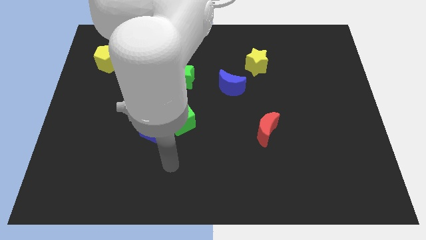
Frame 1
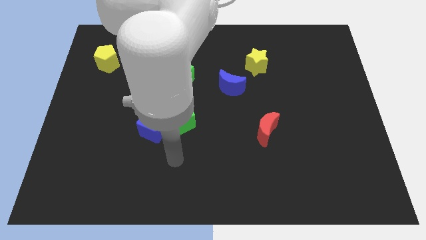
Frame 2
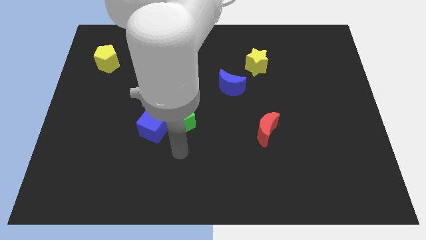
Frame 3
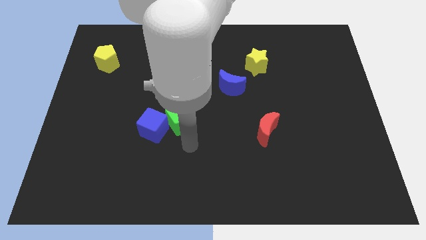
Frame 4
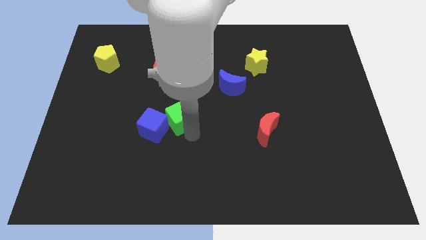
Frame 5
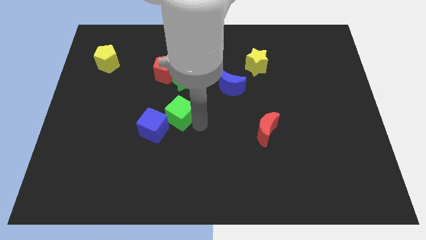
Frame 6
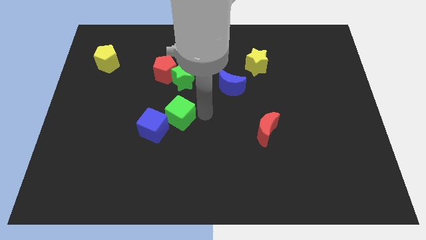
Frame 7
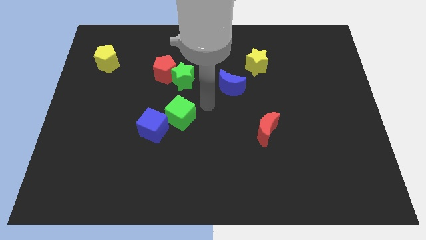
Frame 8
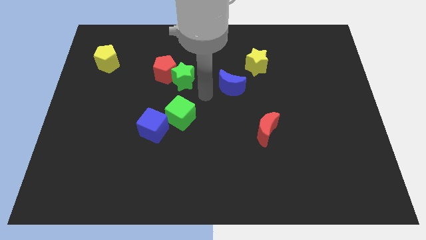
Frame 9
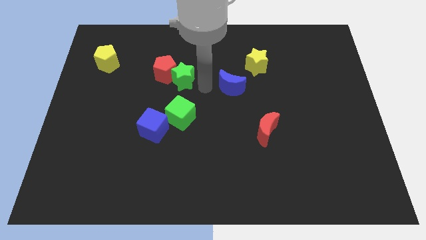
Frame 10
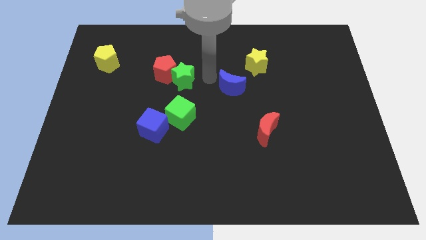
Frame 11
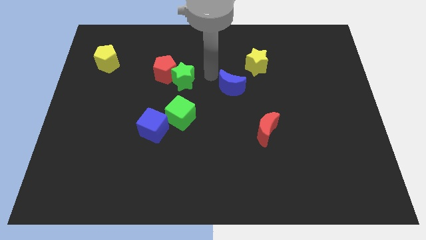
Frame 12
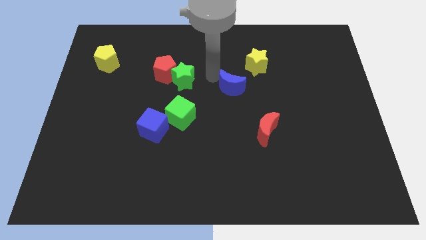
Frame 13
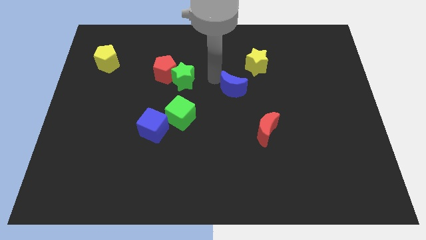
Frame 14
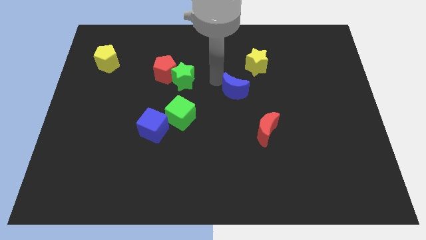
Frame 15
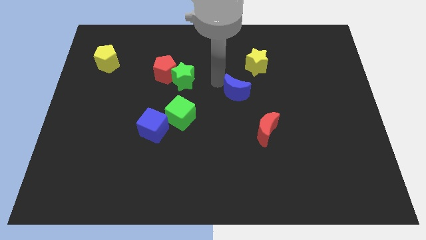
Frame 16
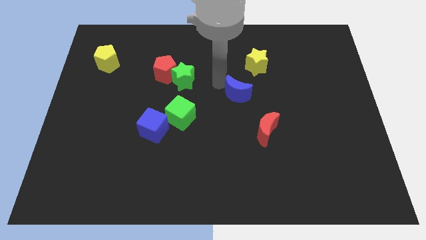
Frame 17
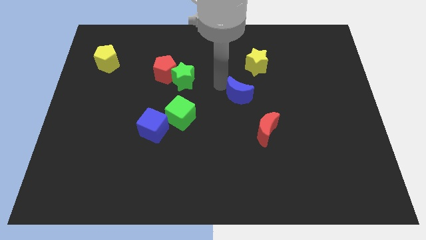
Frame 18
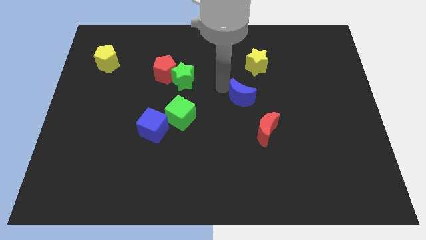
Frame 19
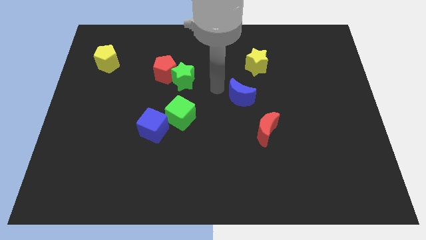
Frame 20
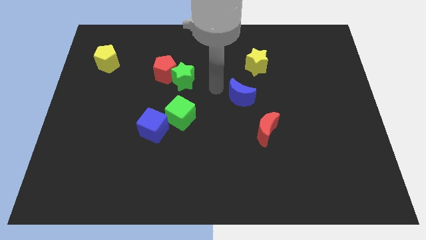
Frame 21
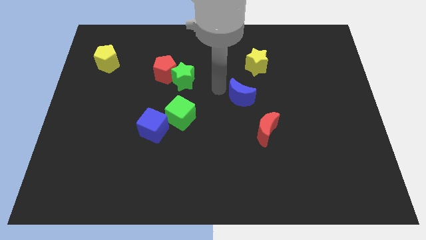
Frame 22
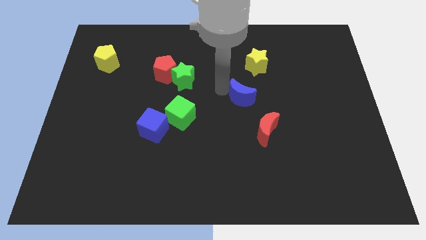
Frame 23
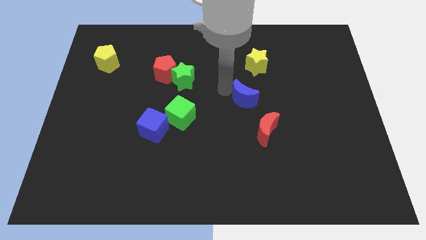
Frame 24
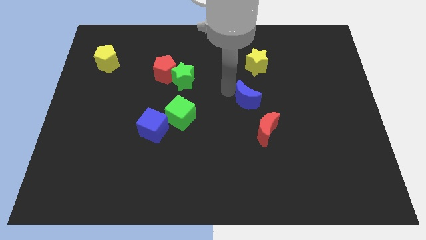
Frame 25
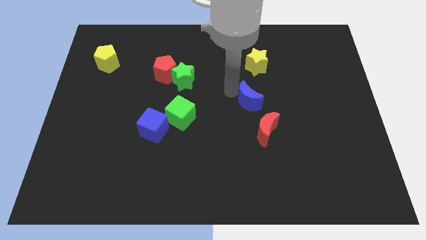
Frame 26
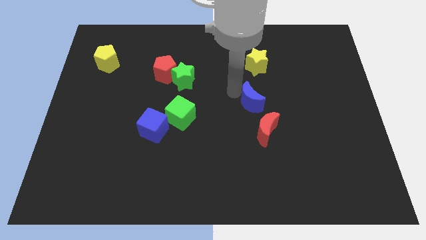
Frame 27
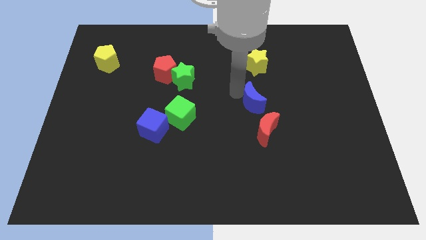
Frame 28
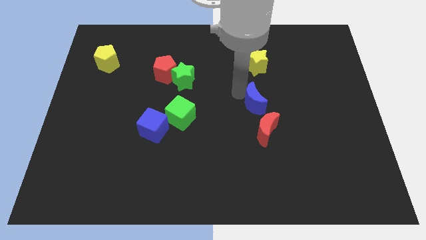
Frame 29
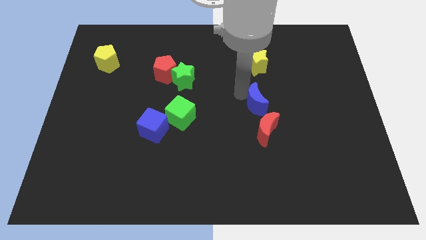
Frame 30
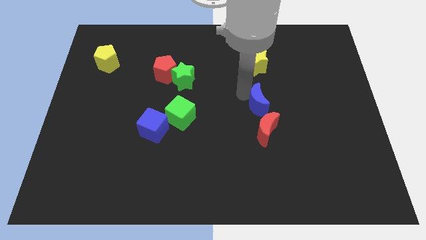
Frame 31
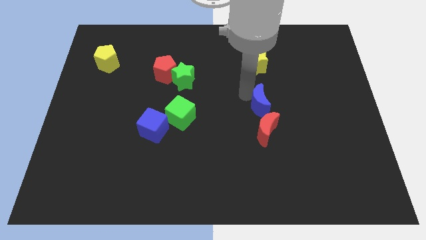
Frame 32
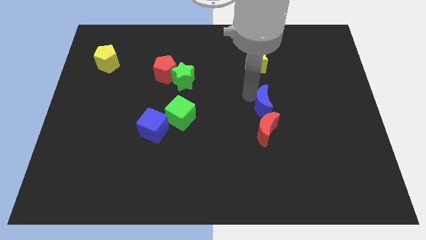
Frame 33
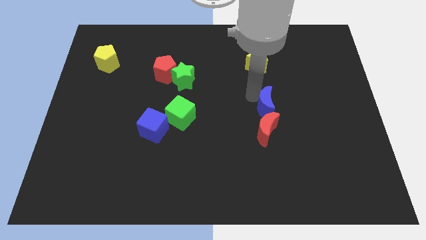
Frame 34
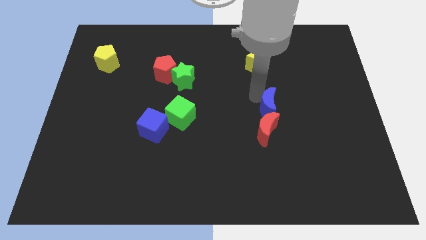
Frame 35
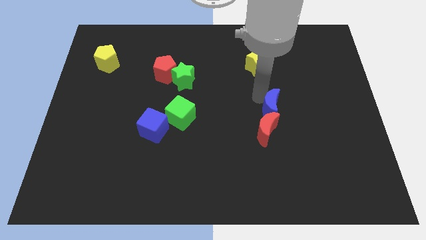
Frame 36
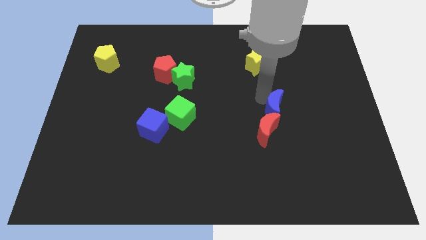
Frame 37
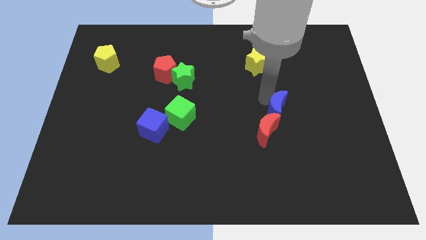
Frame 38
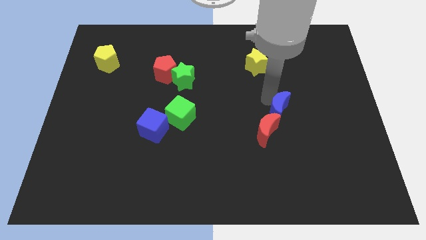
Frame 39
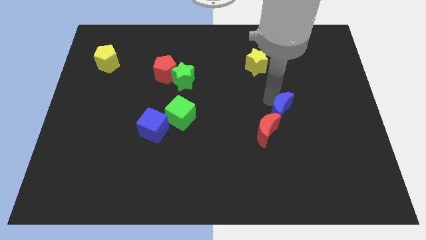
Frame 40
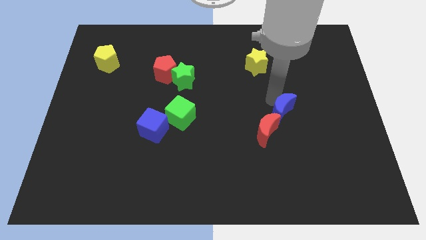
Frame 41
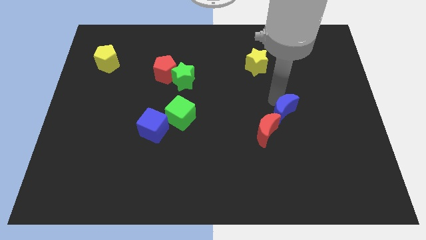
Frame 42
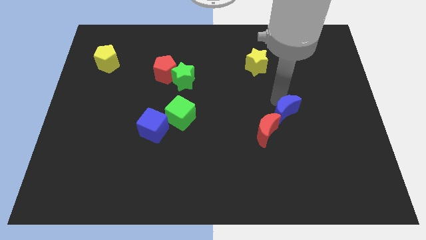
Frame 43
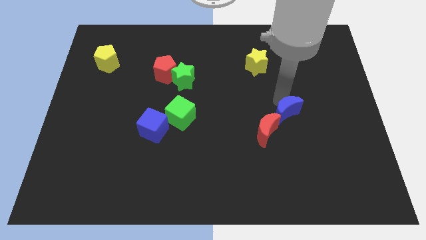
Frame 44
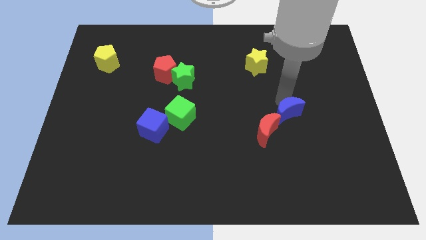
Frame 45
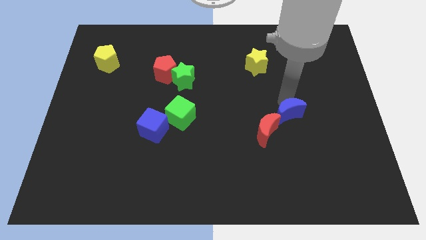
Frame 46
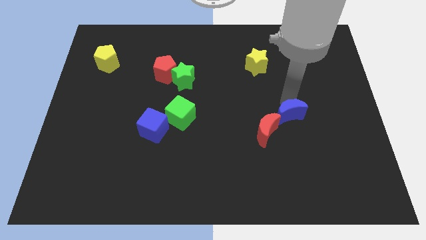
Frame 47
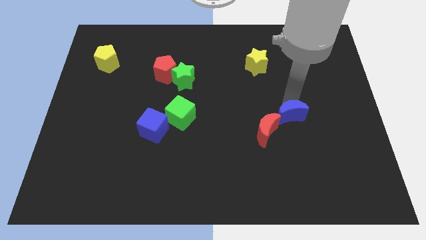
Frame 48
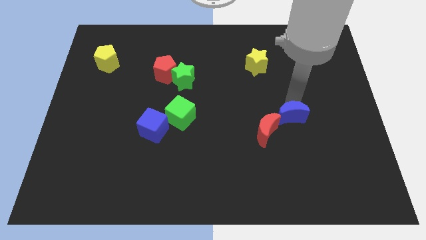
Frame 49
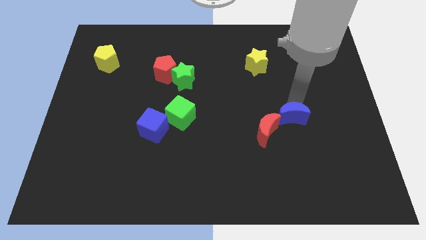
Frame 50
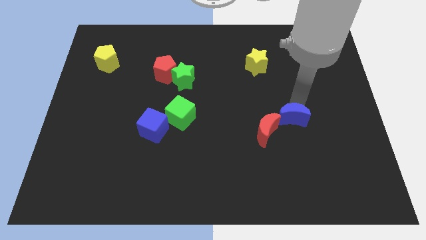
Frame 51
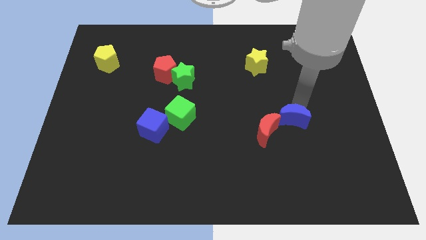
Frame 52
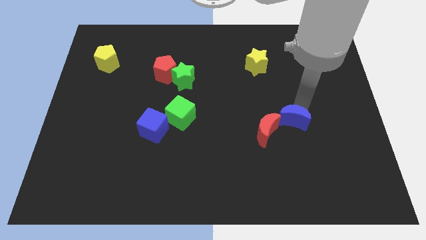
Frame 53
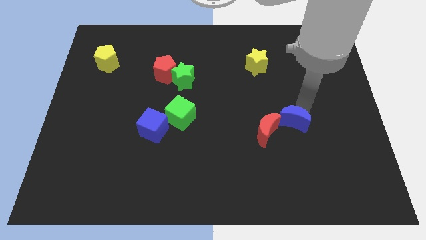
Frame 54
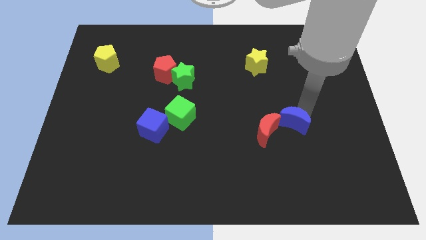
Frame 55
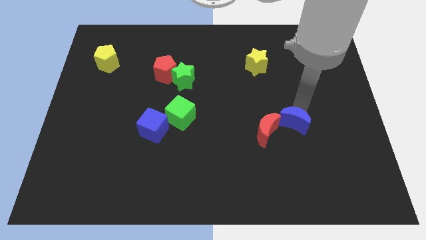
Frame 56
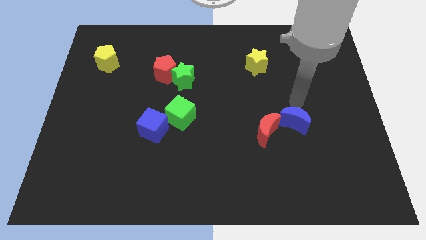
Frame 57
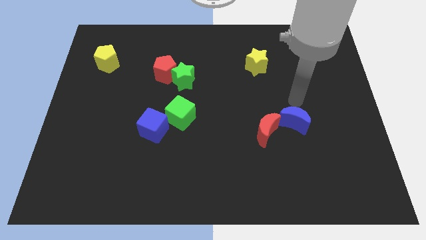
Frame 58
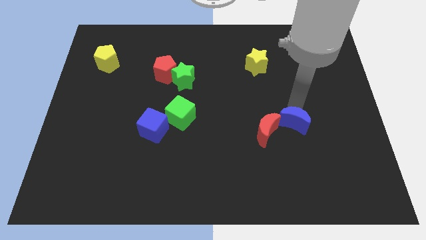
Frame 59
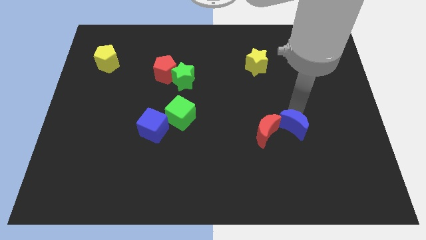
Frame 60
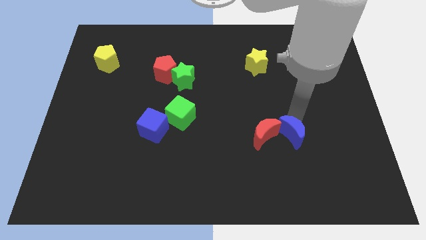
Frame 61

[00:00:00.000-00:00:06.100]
move the blue moon to the bottom right side of the red moon

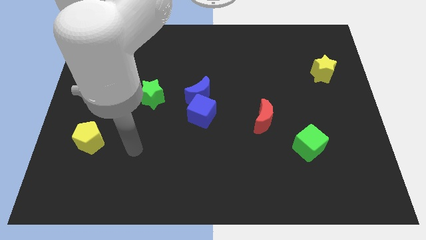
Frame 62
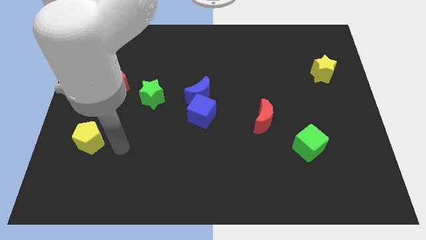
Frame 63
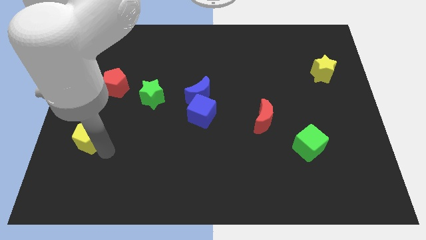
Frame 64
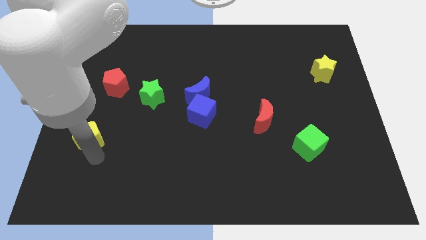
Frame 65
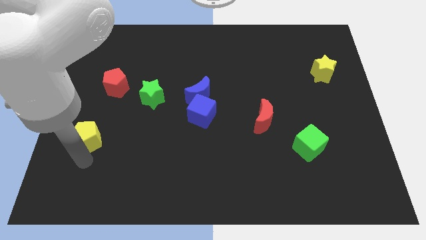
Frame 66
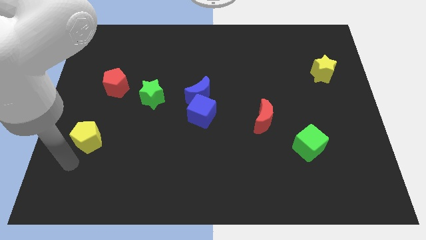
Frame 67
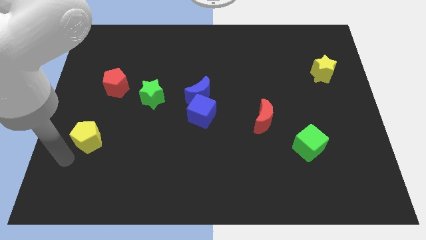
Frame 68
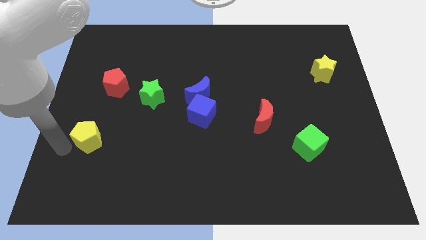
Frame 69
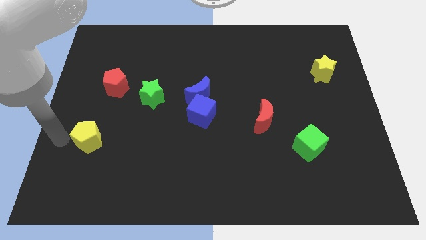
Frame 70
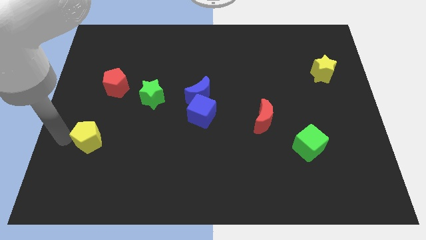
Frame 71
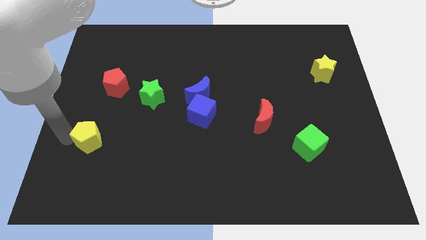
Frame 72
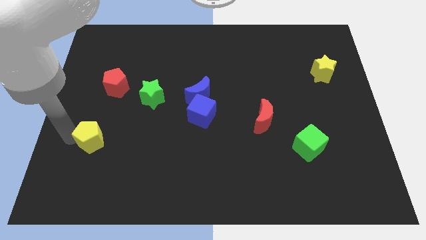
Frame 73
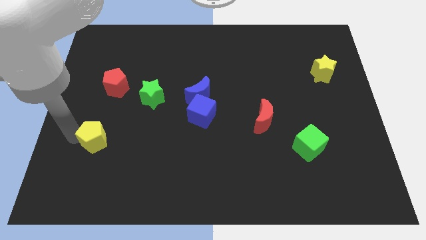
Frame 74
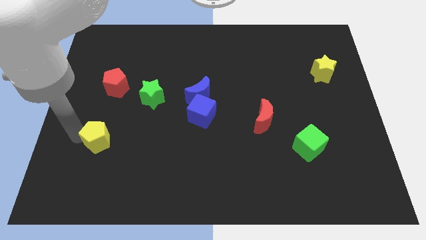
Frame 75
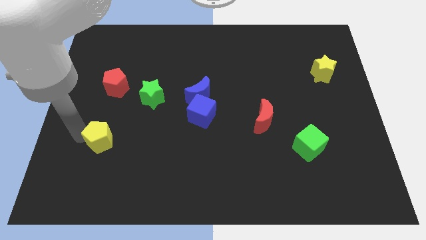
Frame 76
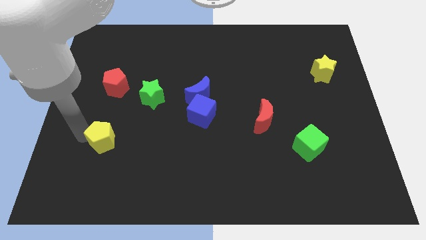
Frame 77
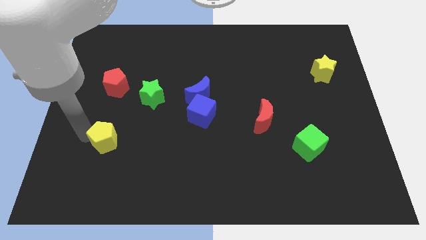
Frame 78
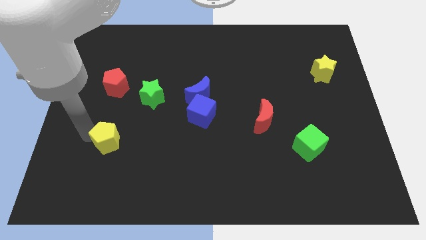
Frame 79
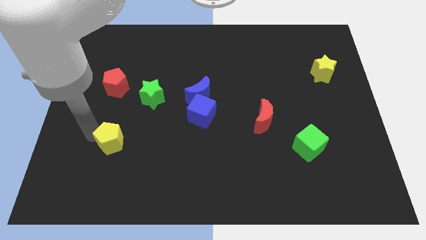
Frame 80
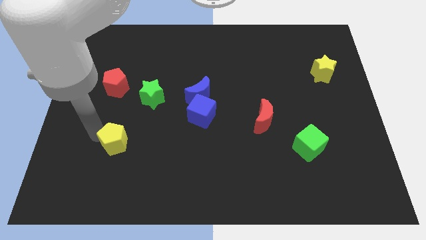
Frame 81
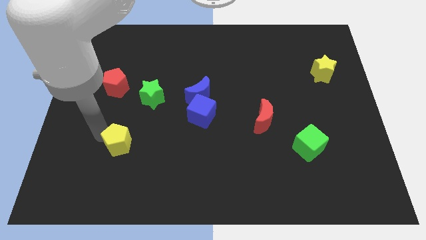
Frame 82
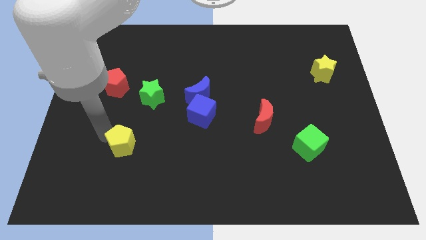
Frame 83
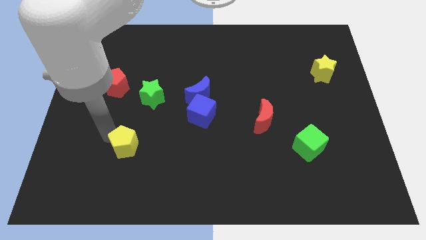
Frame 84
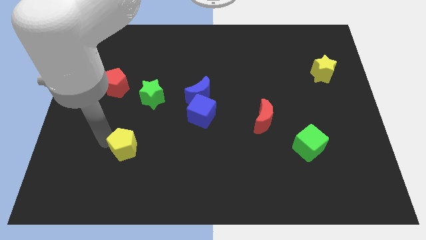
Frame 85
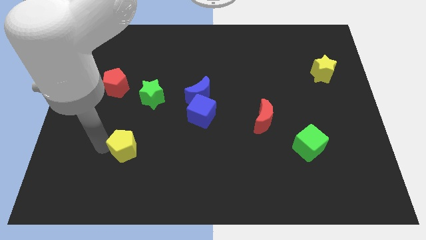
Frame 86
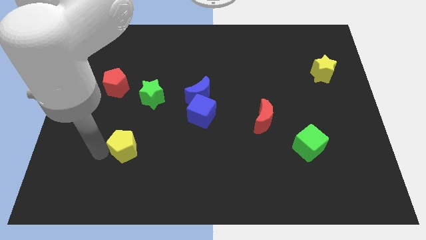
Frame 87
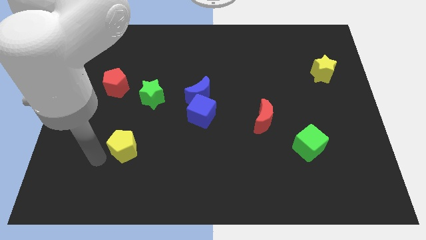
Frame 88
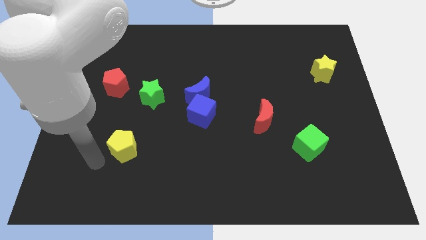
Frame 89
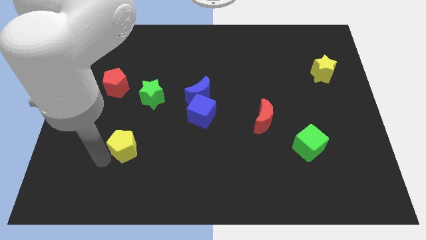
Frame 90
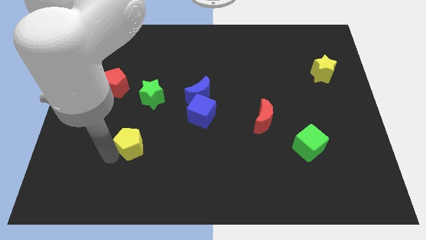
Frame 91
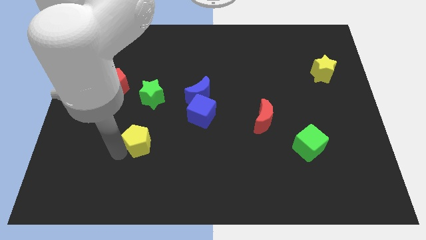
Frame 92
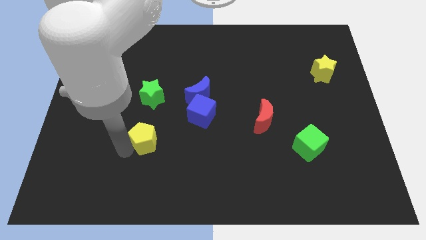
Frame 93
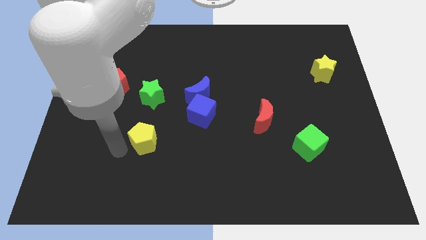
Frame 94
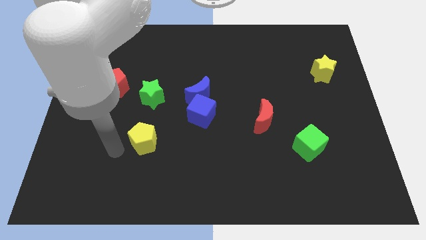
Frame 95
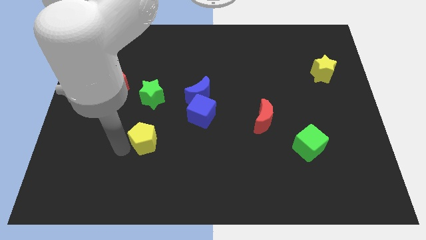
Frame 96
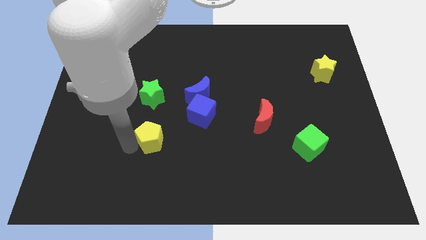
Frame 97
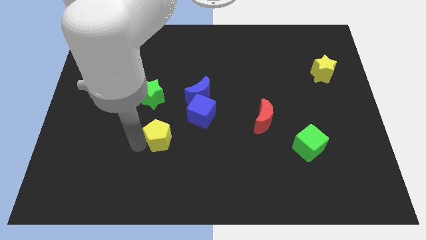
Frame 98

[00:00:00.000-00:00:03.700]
push the yellow pentagon to the bottom left of the blue cube
